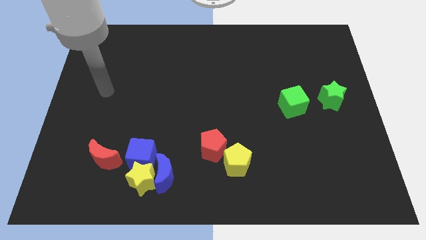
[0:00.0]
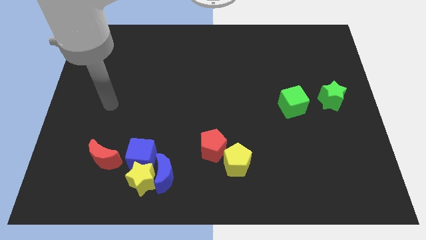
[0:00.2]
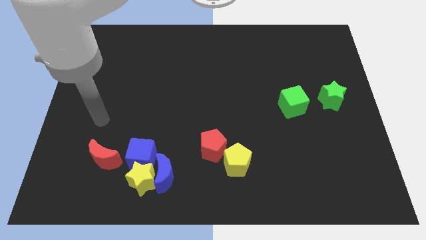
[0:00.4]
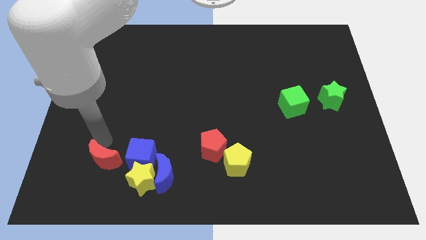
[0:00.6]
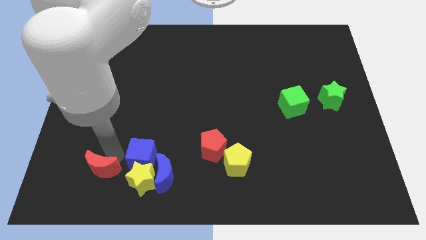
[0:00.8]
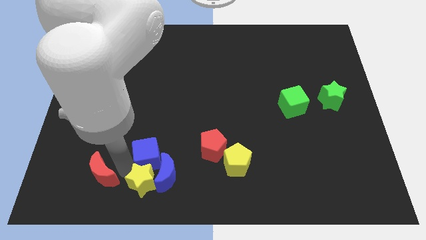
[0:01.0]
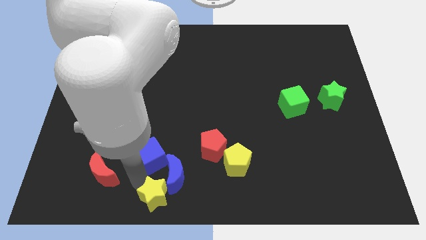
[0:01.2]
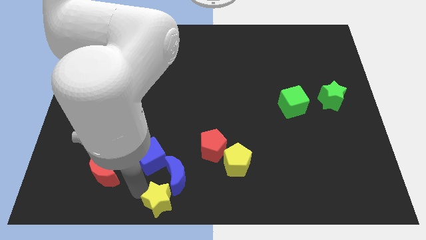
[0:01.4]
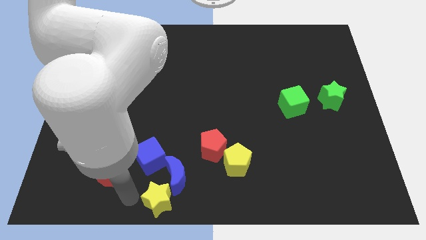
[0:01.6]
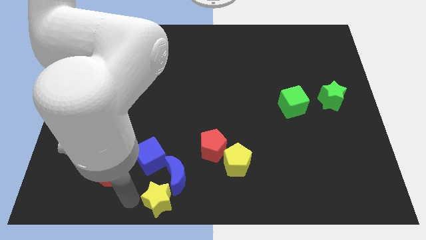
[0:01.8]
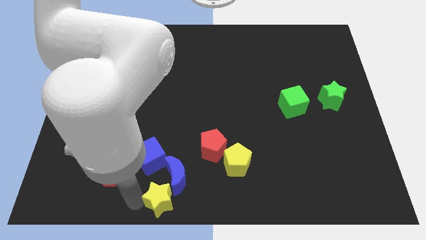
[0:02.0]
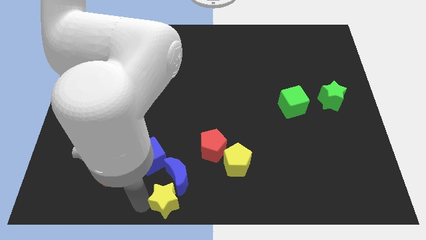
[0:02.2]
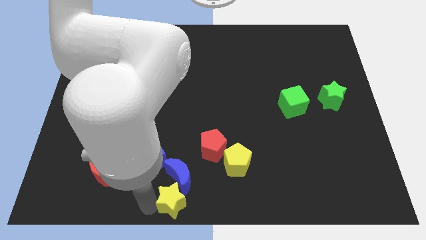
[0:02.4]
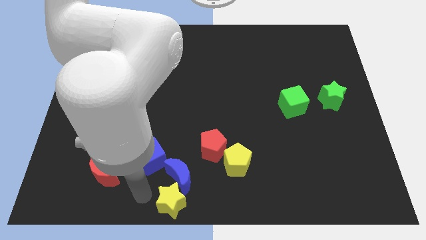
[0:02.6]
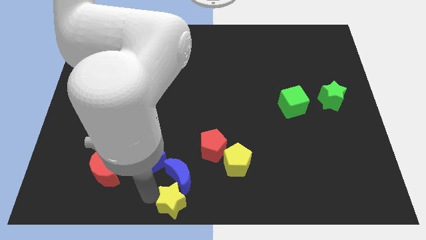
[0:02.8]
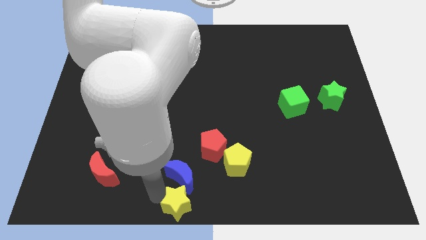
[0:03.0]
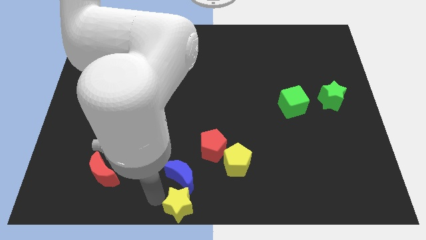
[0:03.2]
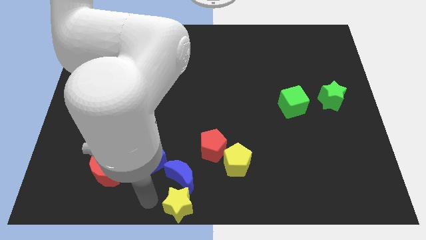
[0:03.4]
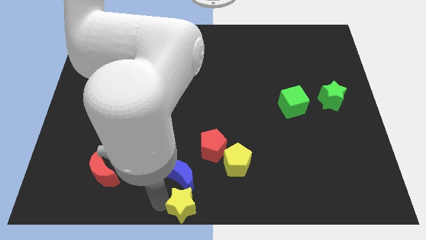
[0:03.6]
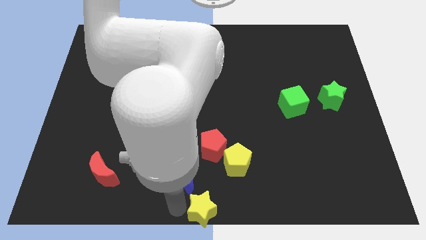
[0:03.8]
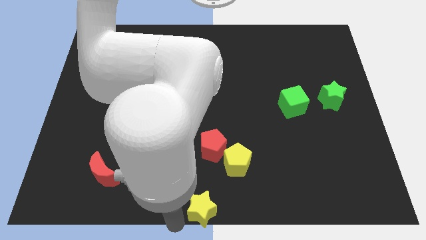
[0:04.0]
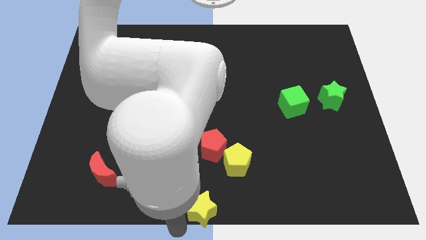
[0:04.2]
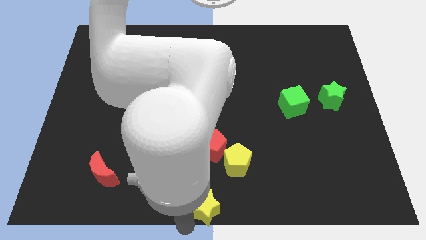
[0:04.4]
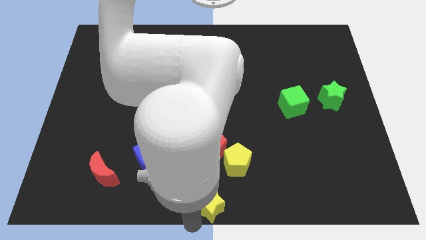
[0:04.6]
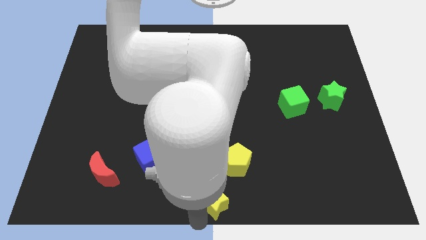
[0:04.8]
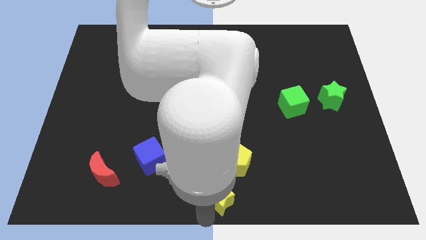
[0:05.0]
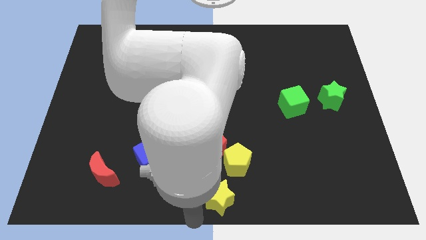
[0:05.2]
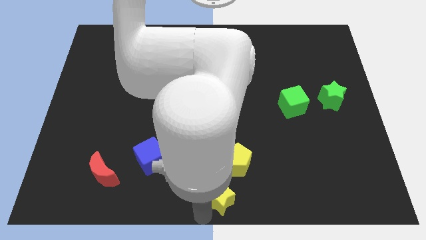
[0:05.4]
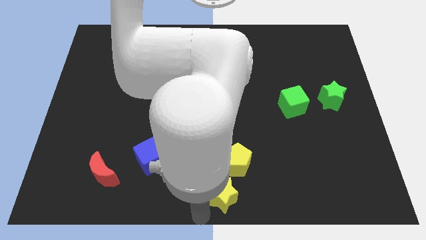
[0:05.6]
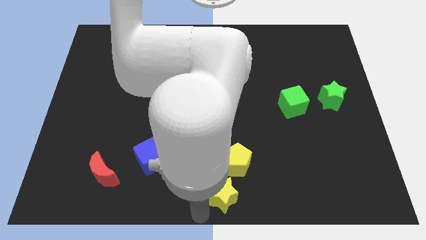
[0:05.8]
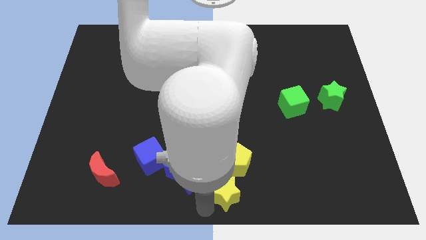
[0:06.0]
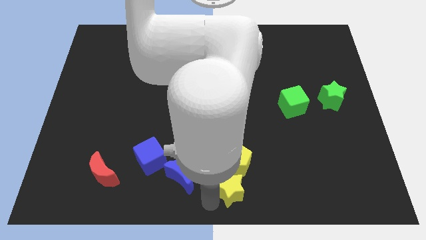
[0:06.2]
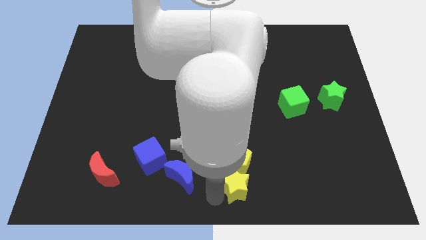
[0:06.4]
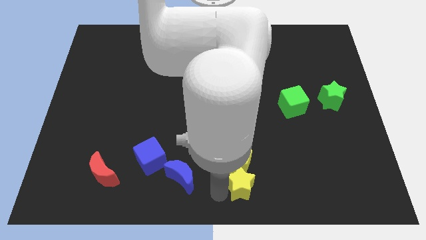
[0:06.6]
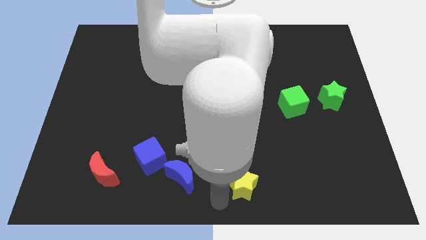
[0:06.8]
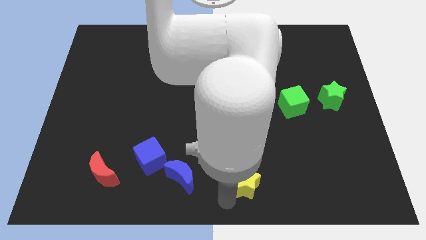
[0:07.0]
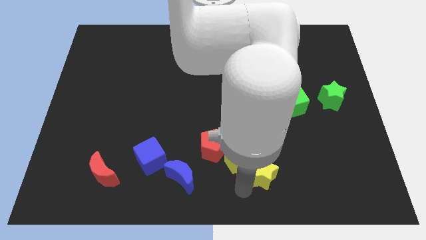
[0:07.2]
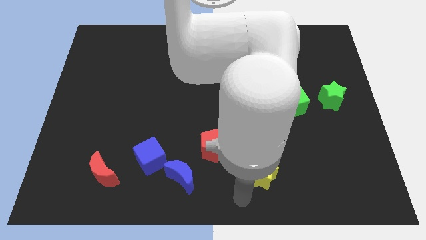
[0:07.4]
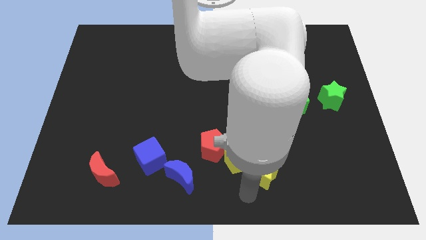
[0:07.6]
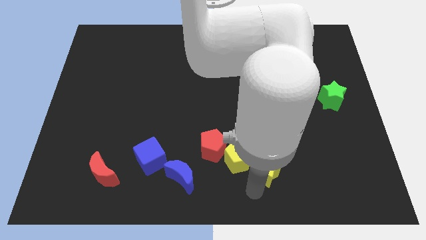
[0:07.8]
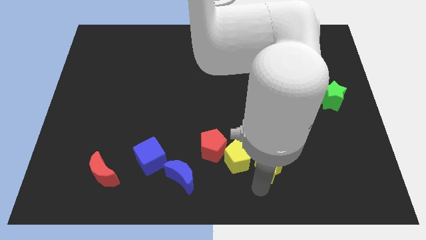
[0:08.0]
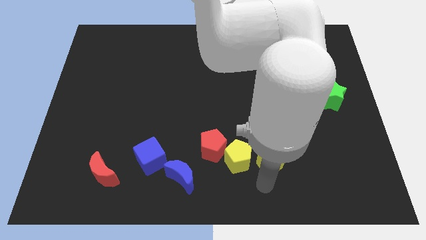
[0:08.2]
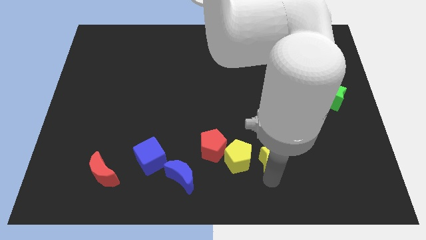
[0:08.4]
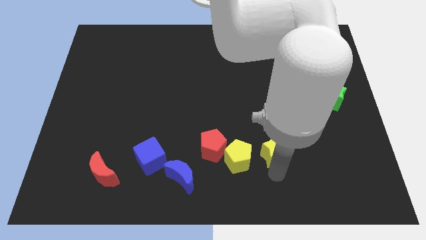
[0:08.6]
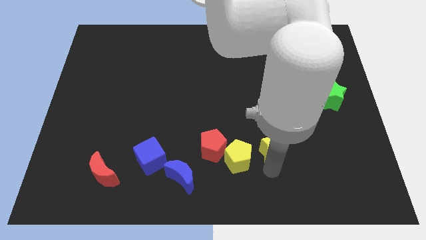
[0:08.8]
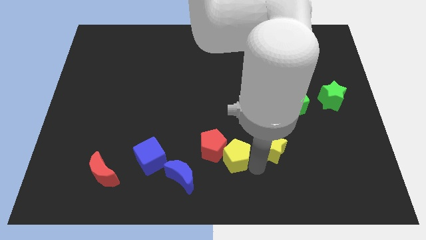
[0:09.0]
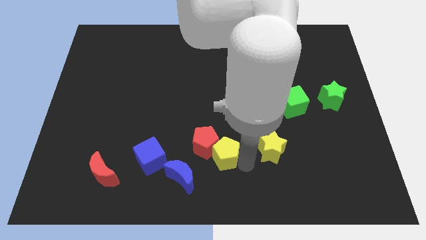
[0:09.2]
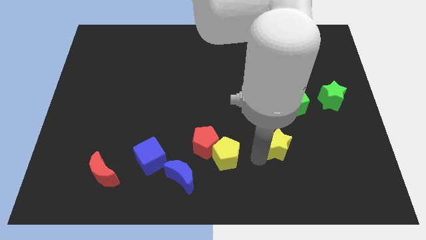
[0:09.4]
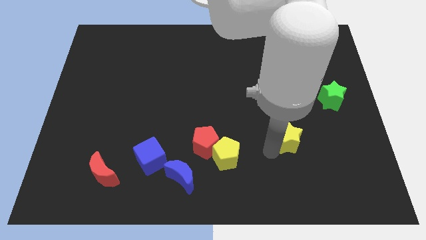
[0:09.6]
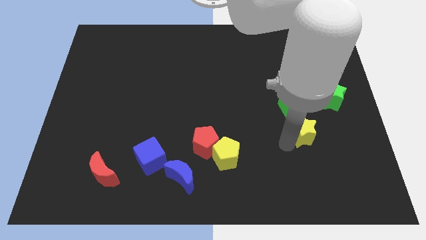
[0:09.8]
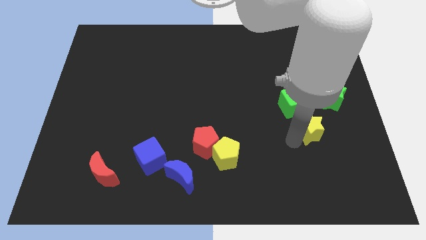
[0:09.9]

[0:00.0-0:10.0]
put the yellow star to the bottom right side of the green cube
